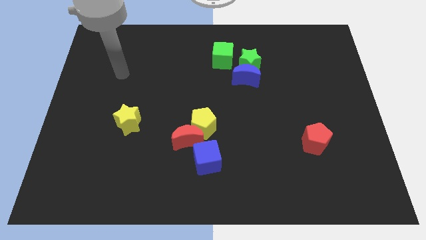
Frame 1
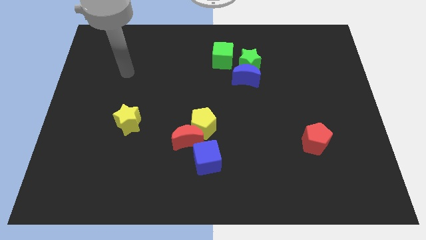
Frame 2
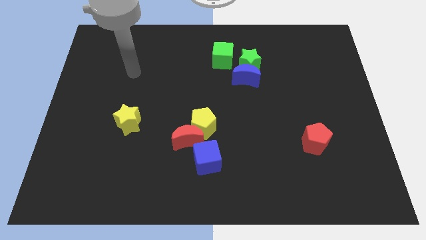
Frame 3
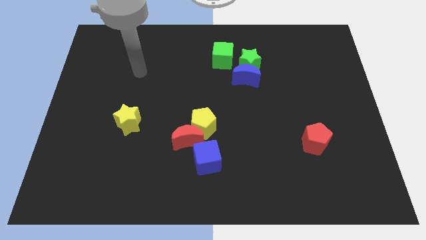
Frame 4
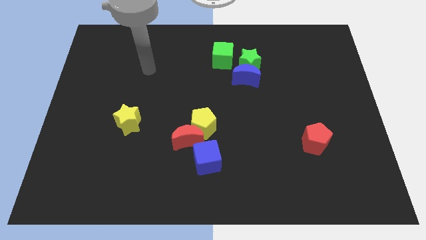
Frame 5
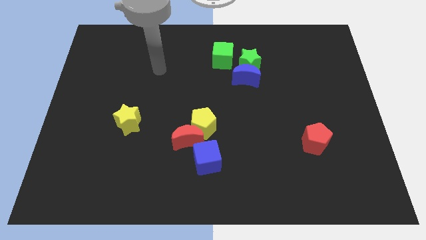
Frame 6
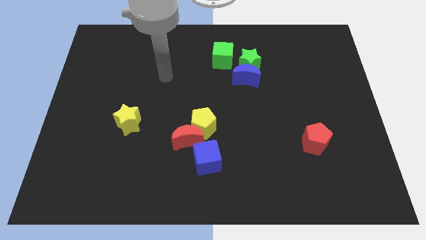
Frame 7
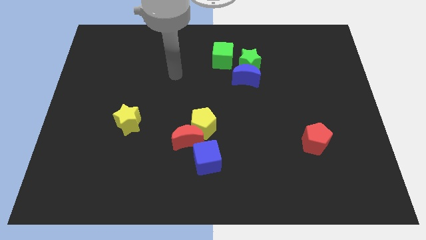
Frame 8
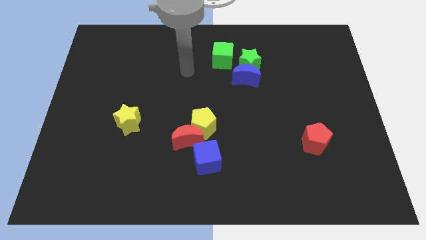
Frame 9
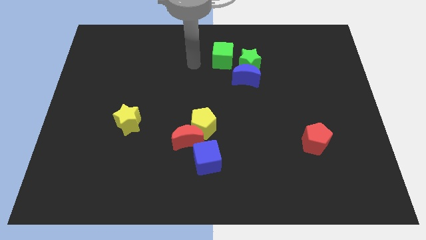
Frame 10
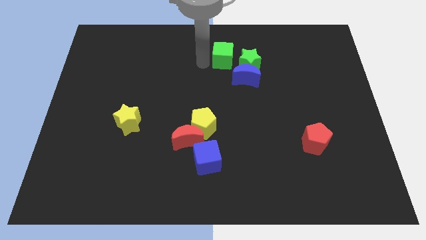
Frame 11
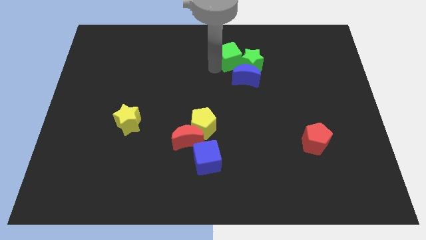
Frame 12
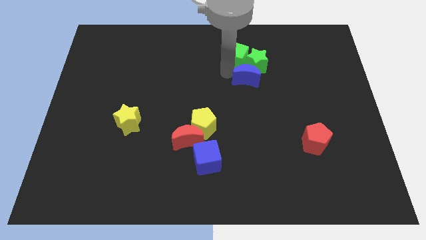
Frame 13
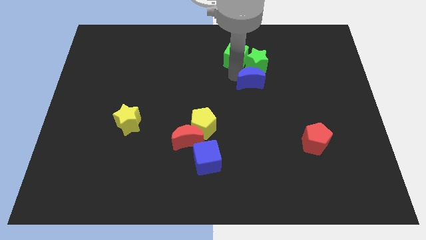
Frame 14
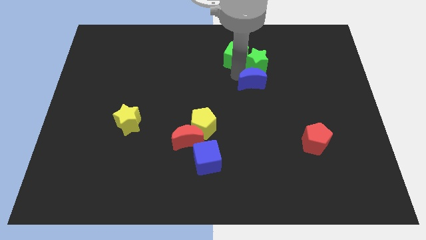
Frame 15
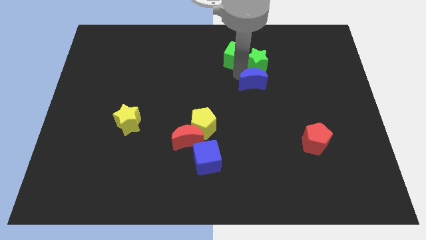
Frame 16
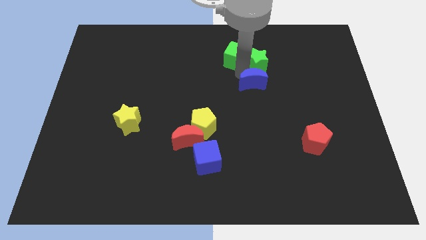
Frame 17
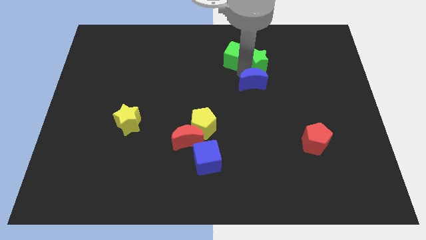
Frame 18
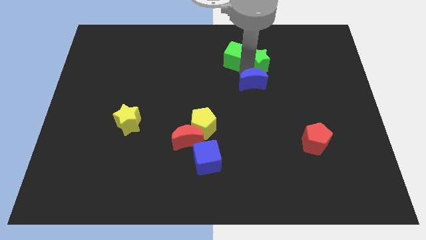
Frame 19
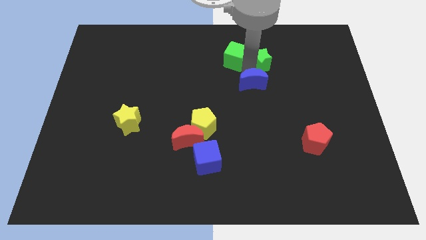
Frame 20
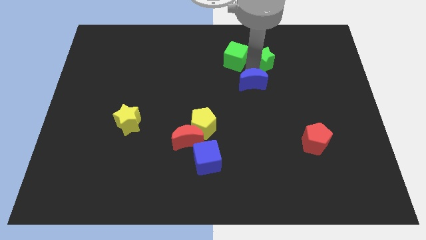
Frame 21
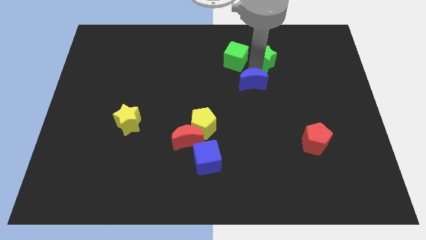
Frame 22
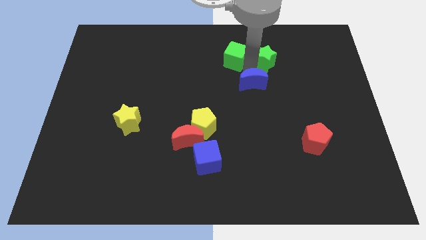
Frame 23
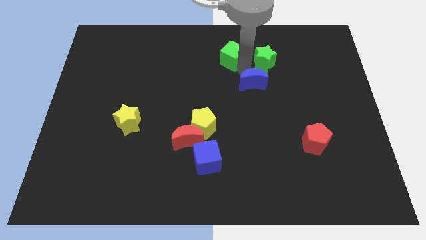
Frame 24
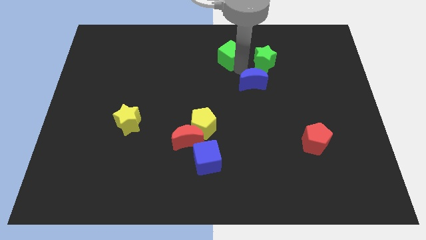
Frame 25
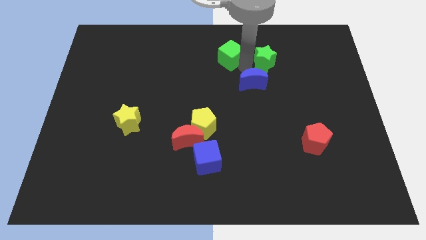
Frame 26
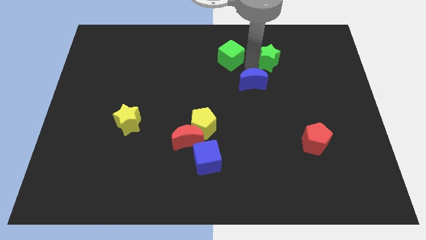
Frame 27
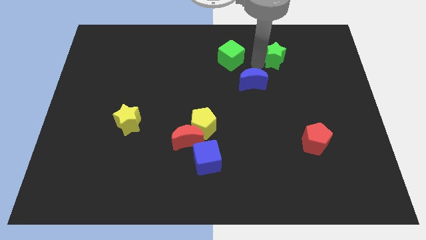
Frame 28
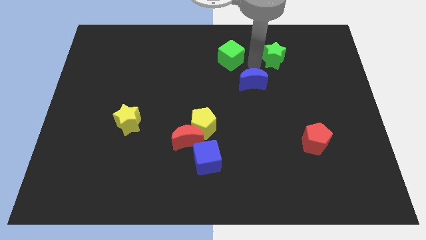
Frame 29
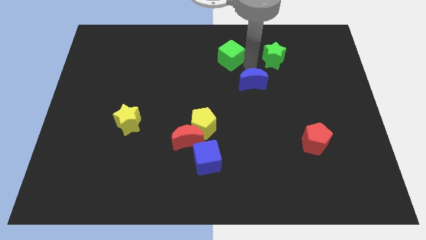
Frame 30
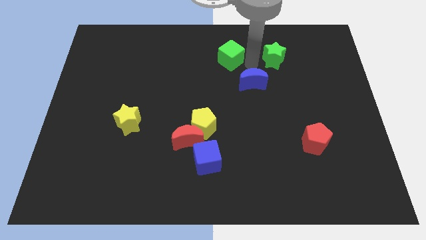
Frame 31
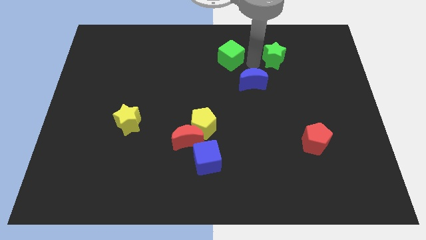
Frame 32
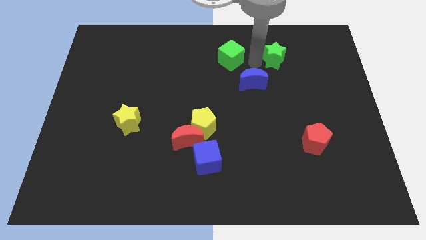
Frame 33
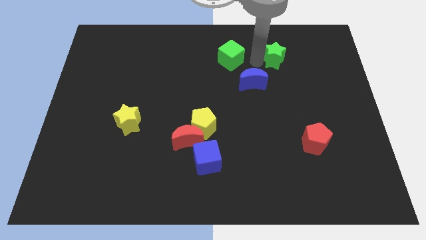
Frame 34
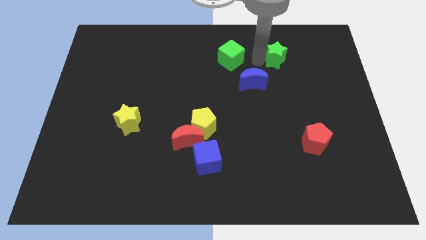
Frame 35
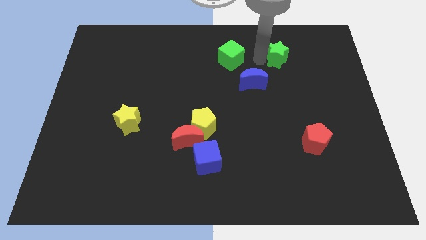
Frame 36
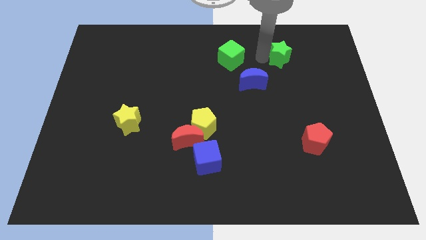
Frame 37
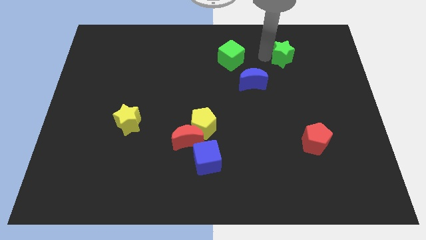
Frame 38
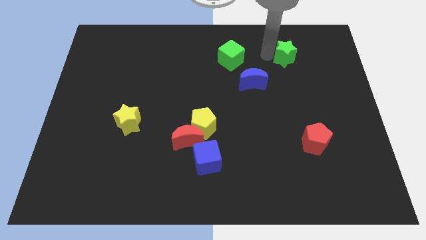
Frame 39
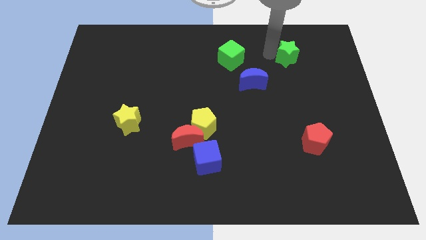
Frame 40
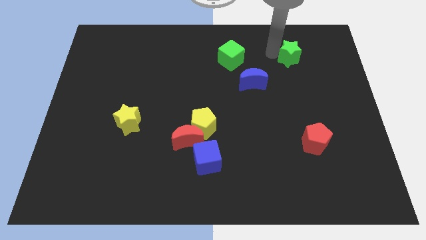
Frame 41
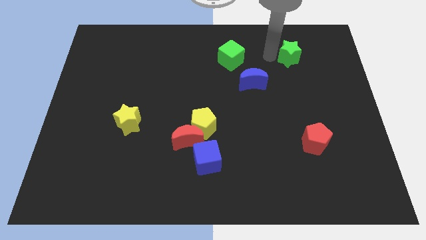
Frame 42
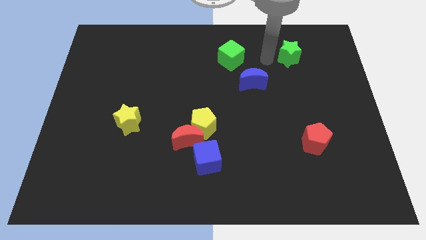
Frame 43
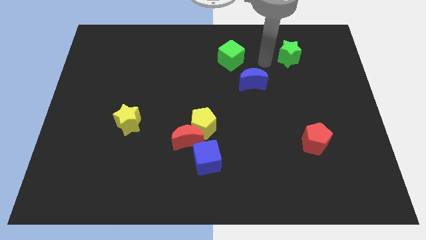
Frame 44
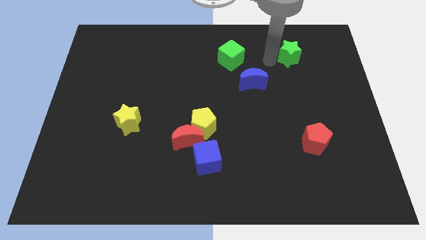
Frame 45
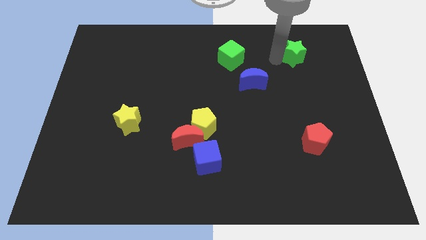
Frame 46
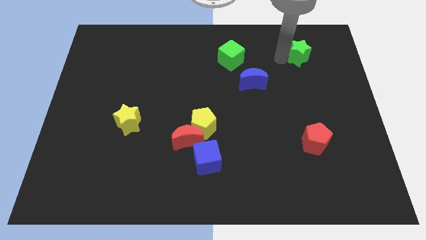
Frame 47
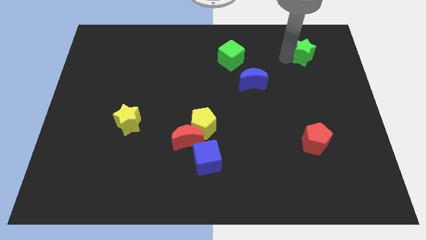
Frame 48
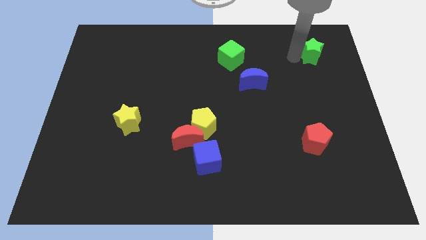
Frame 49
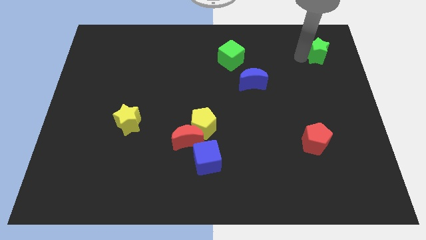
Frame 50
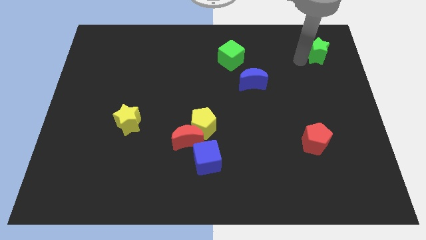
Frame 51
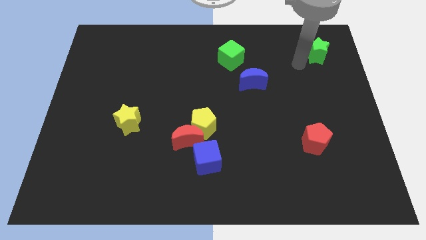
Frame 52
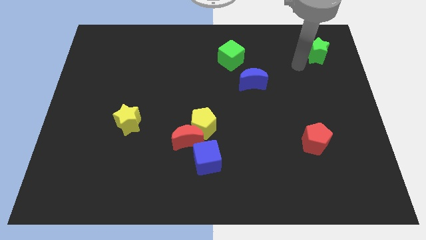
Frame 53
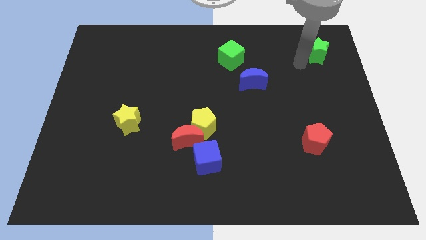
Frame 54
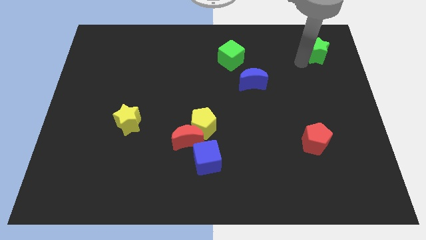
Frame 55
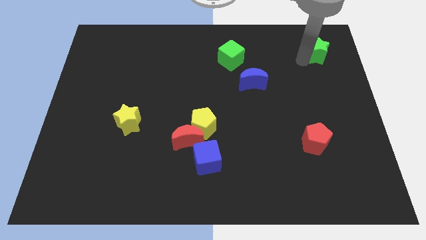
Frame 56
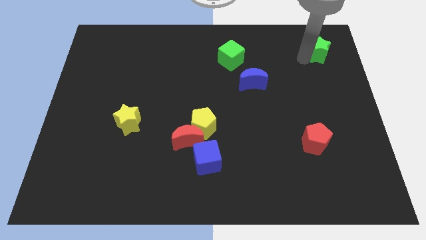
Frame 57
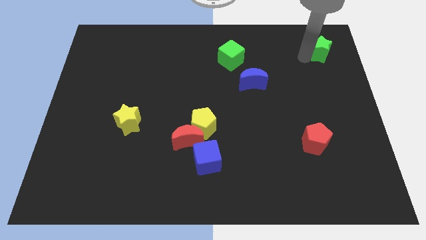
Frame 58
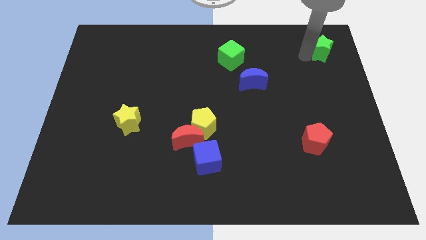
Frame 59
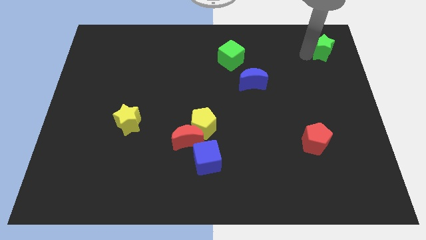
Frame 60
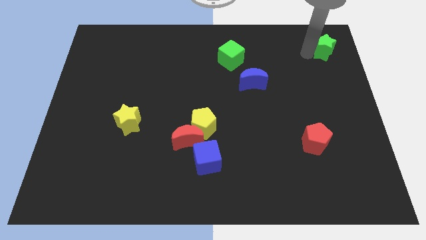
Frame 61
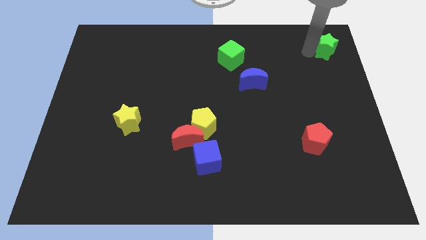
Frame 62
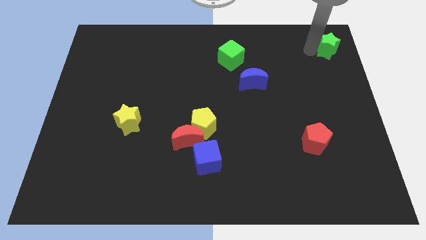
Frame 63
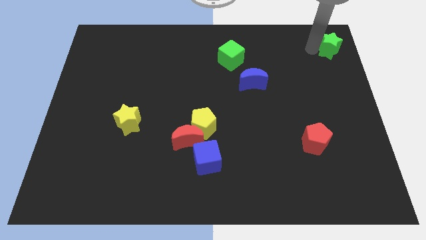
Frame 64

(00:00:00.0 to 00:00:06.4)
slide the green star to the top right corner

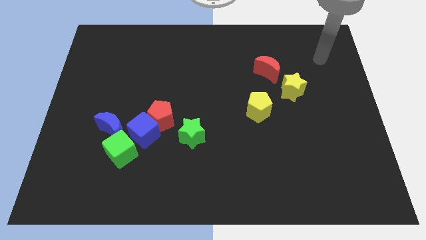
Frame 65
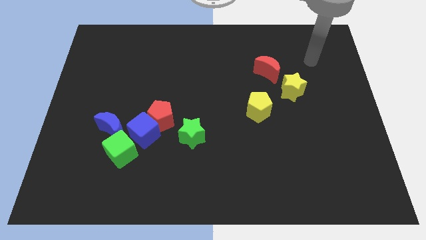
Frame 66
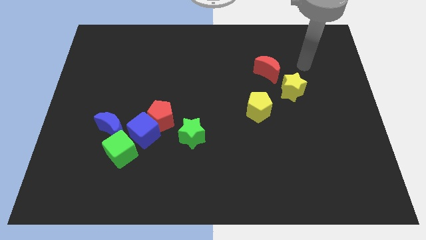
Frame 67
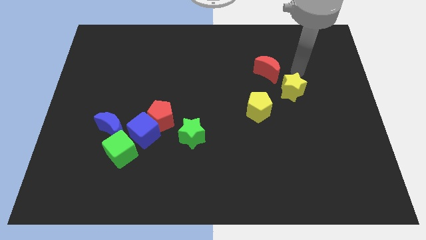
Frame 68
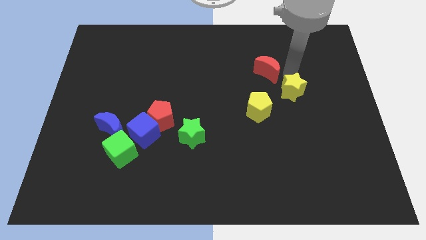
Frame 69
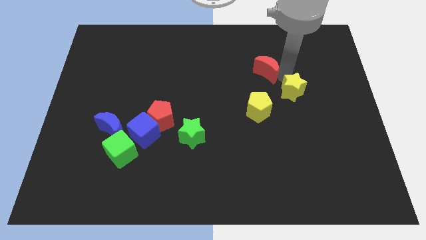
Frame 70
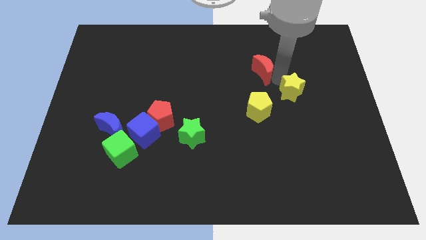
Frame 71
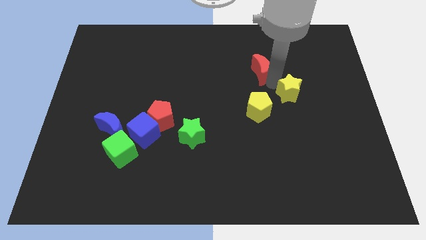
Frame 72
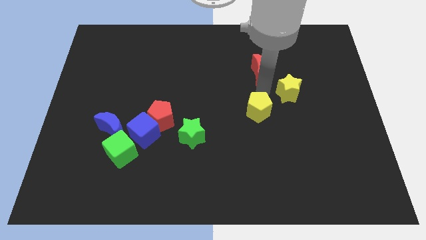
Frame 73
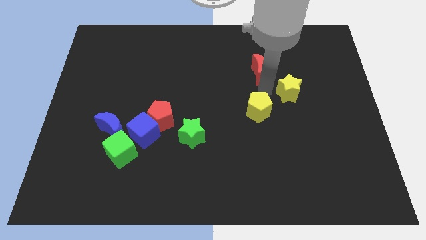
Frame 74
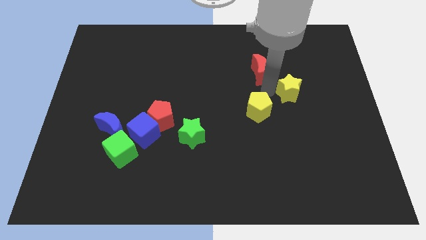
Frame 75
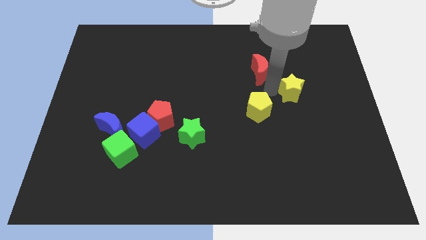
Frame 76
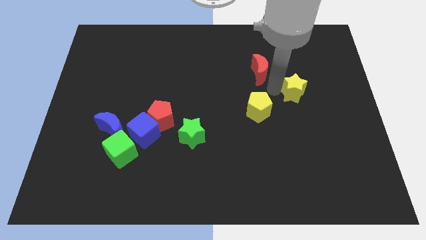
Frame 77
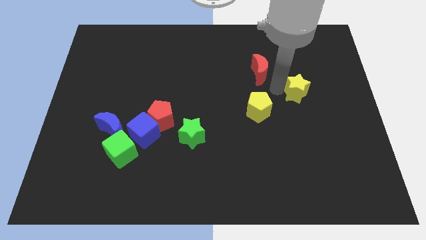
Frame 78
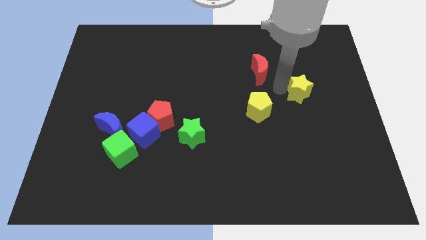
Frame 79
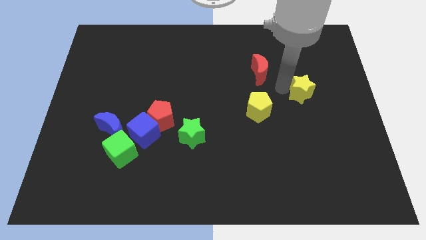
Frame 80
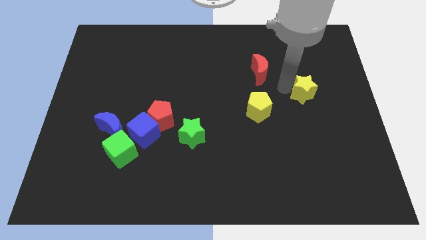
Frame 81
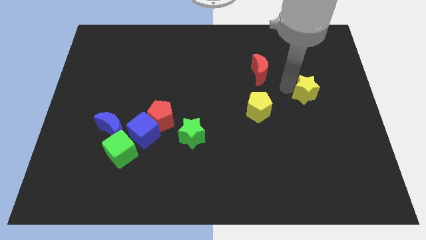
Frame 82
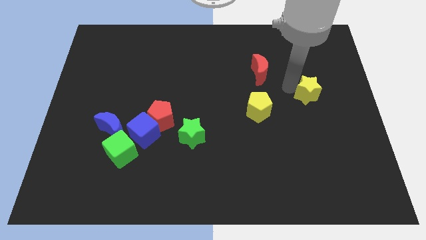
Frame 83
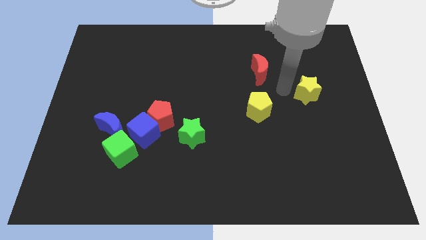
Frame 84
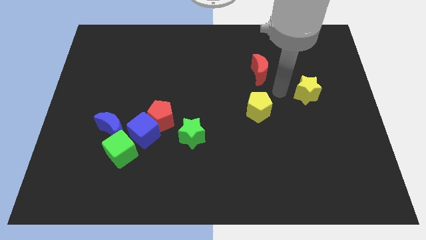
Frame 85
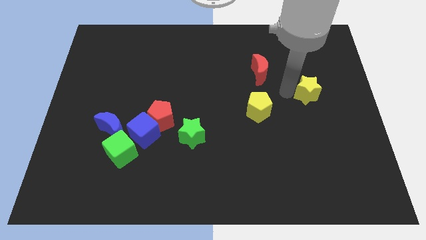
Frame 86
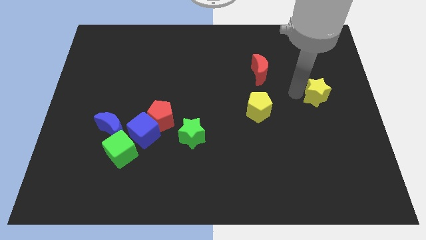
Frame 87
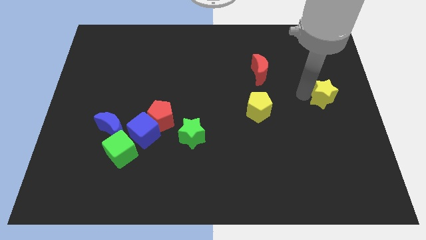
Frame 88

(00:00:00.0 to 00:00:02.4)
move the yellow star to the right side of the board
